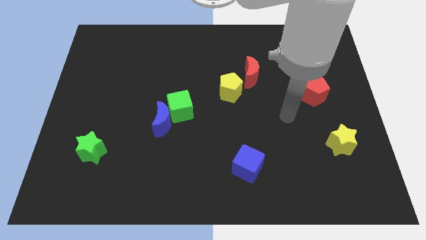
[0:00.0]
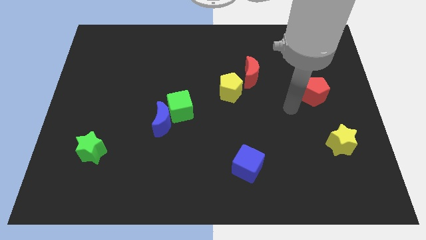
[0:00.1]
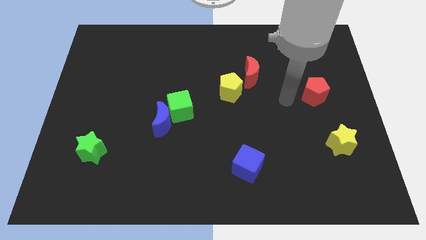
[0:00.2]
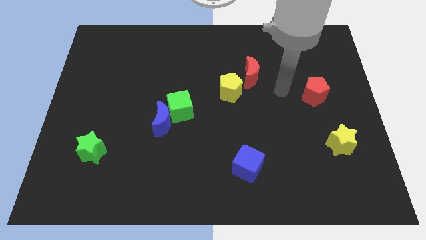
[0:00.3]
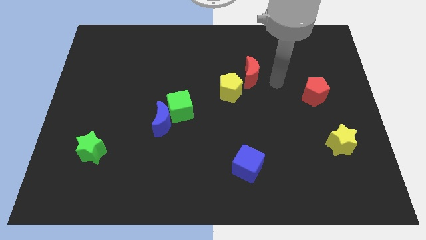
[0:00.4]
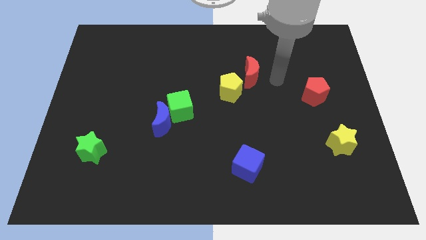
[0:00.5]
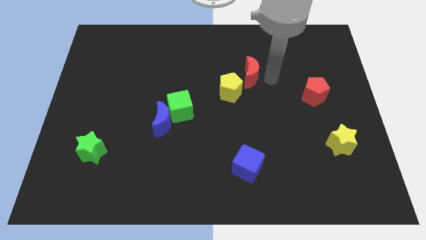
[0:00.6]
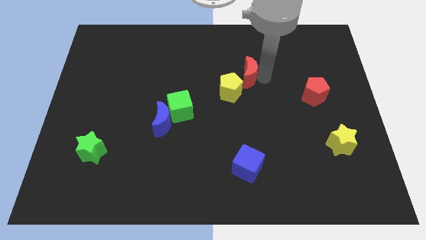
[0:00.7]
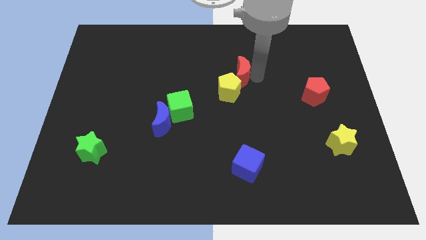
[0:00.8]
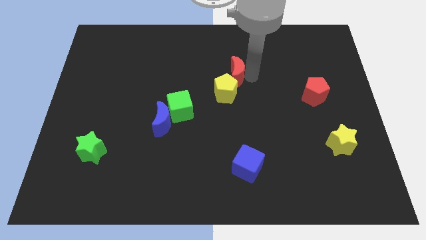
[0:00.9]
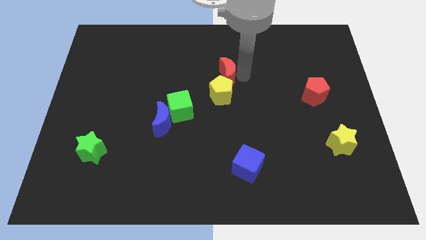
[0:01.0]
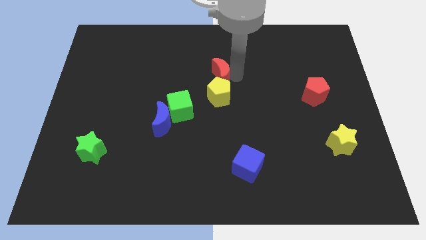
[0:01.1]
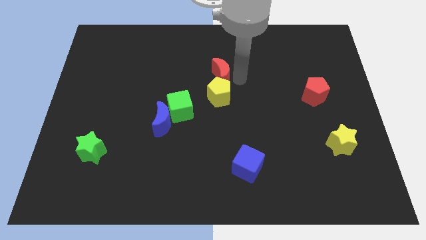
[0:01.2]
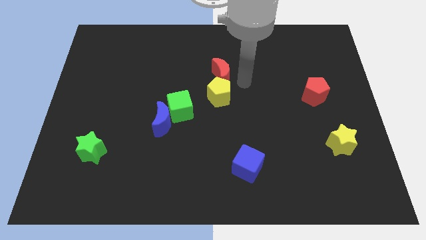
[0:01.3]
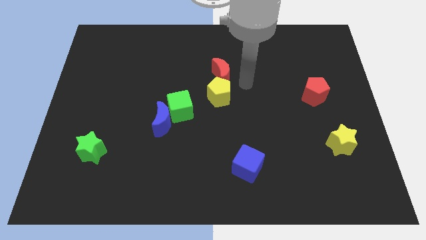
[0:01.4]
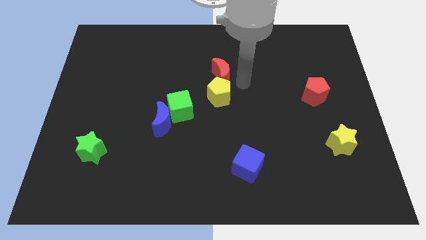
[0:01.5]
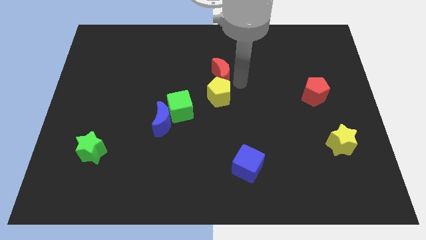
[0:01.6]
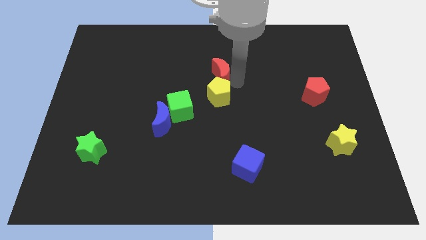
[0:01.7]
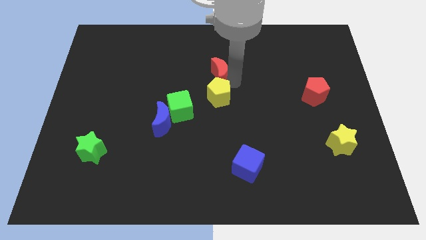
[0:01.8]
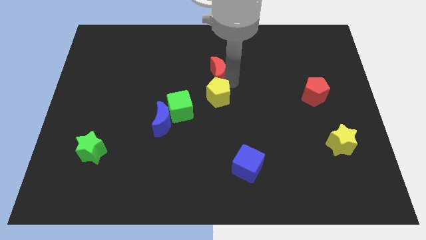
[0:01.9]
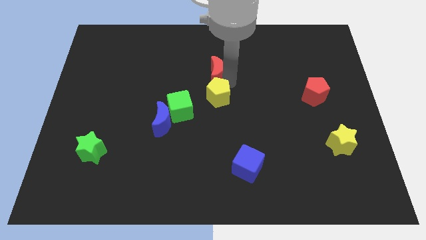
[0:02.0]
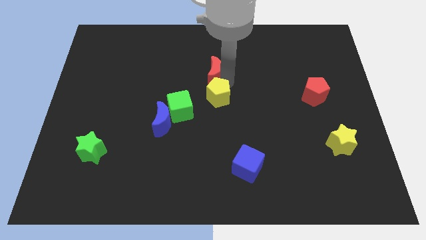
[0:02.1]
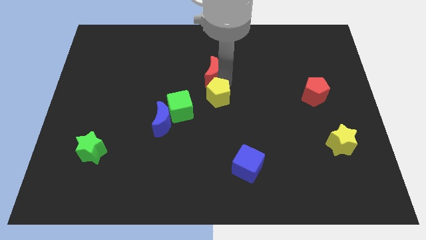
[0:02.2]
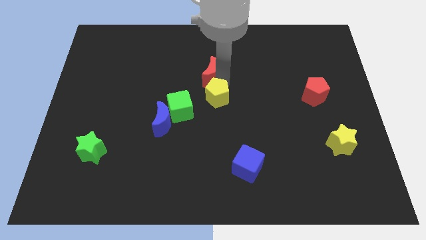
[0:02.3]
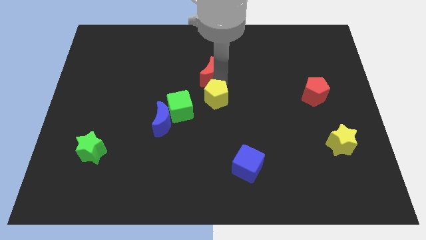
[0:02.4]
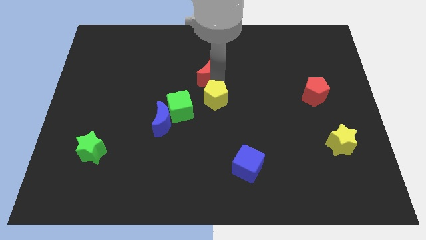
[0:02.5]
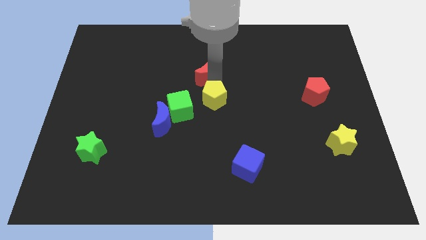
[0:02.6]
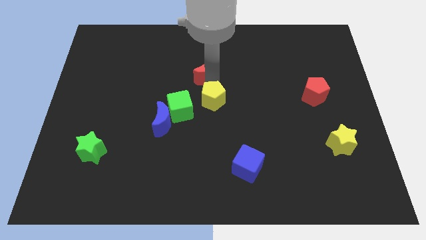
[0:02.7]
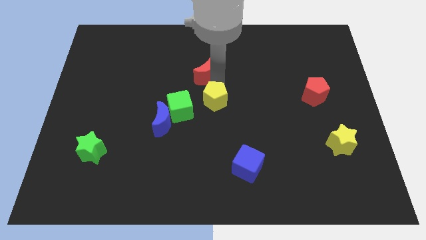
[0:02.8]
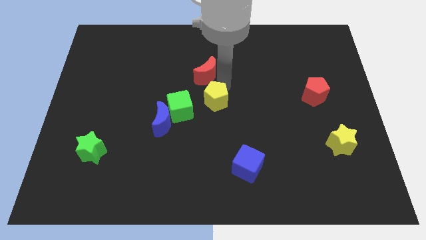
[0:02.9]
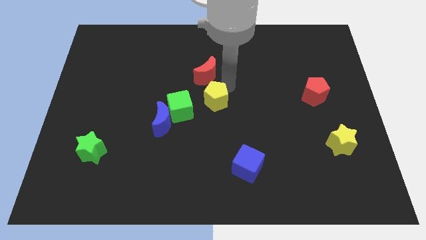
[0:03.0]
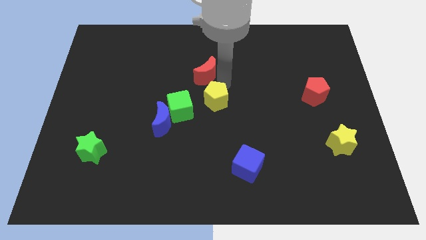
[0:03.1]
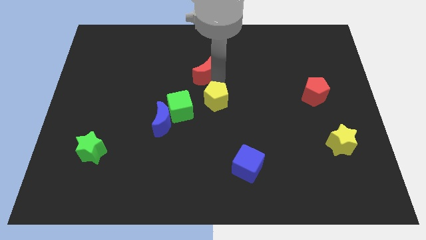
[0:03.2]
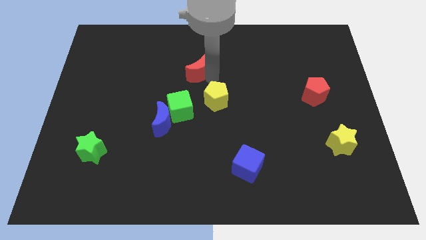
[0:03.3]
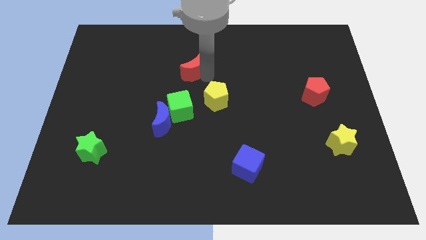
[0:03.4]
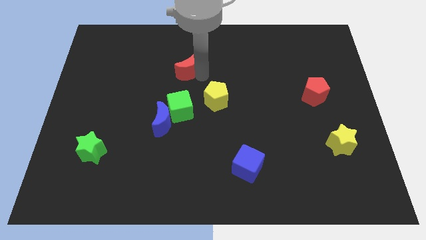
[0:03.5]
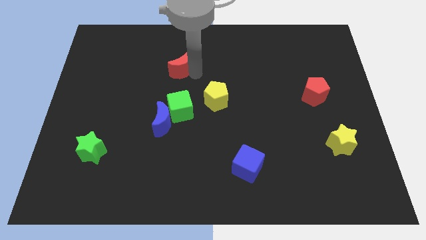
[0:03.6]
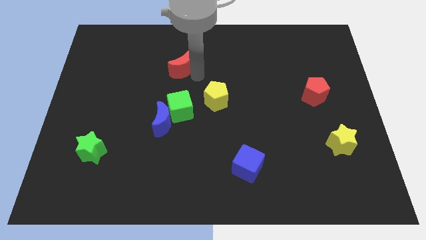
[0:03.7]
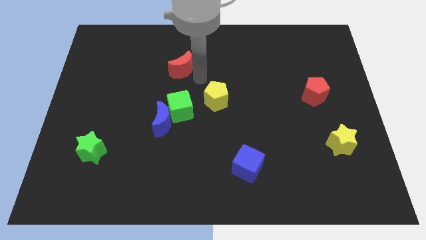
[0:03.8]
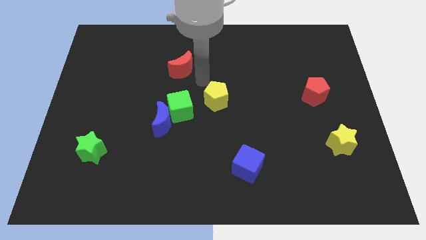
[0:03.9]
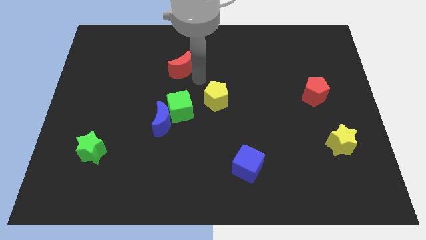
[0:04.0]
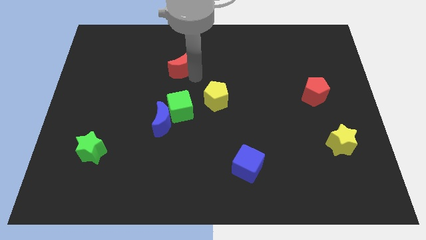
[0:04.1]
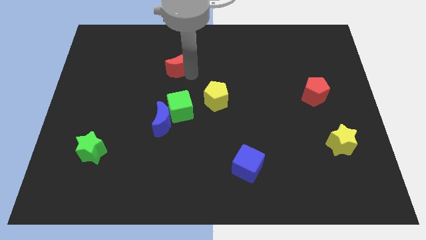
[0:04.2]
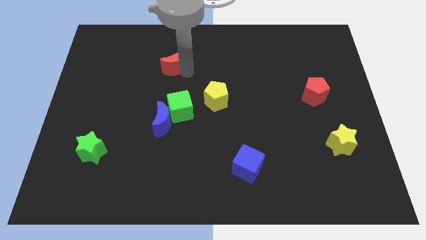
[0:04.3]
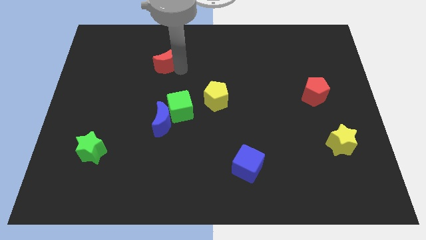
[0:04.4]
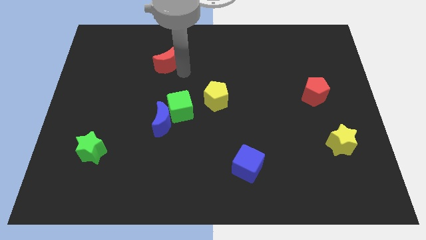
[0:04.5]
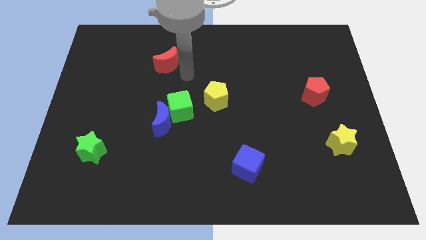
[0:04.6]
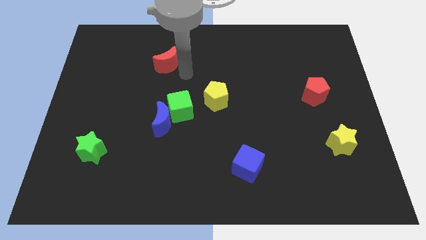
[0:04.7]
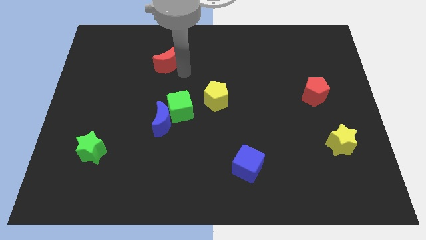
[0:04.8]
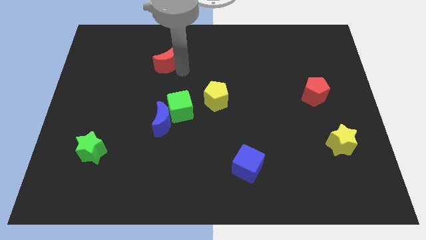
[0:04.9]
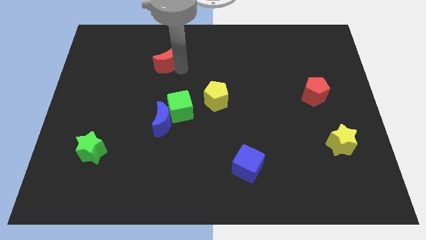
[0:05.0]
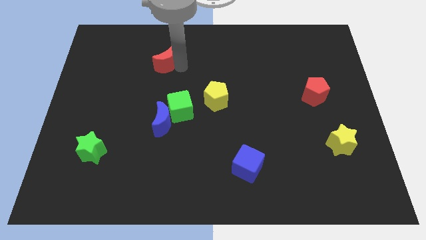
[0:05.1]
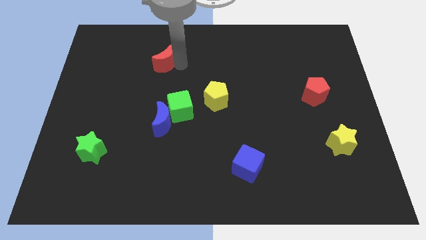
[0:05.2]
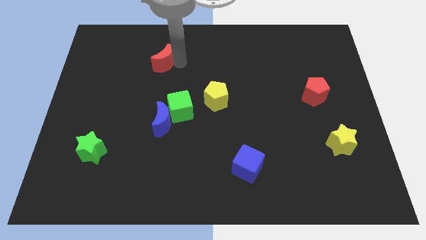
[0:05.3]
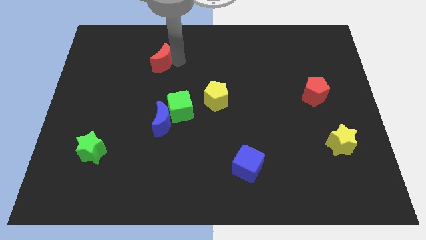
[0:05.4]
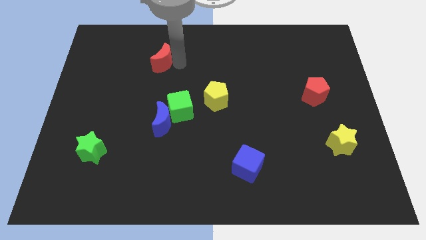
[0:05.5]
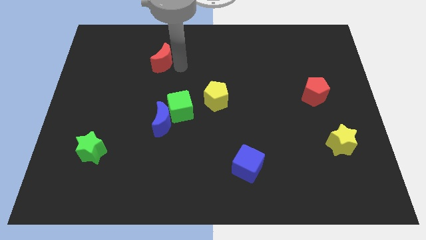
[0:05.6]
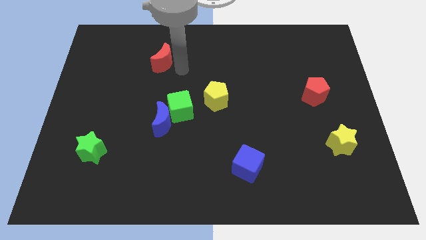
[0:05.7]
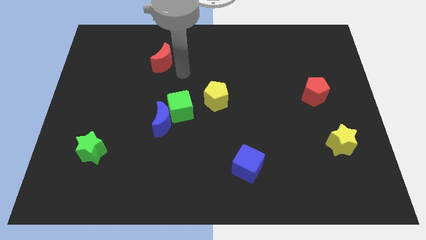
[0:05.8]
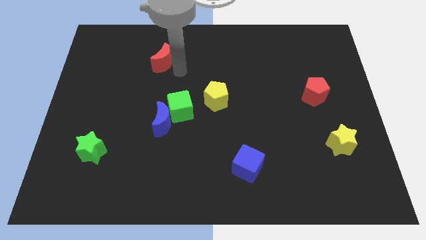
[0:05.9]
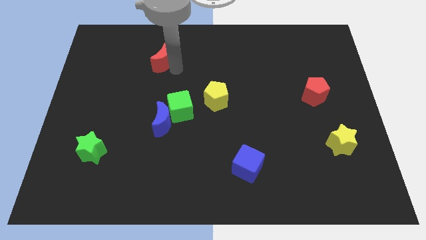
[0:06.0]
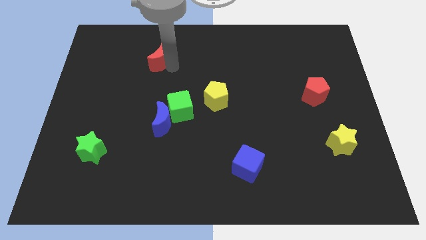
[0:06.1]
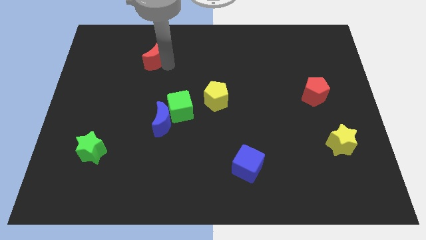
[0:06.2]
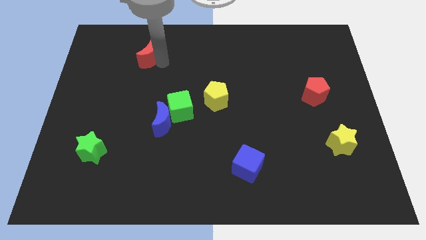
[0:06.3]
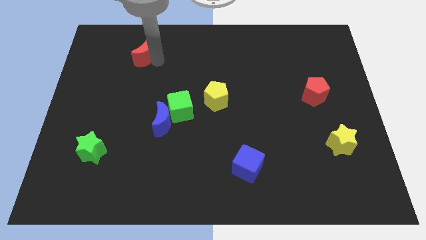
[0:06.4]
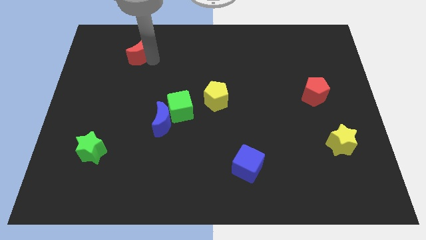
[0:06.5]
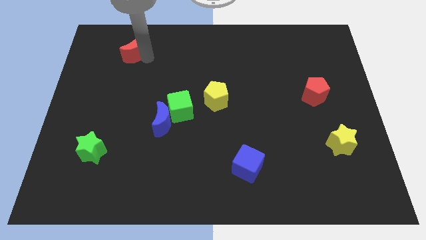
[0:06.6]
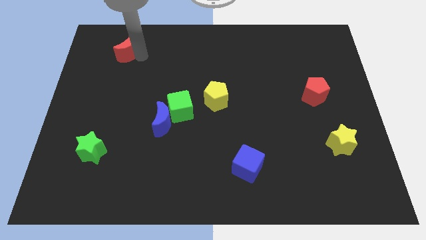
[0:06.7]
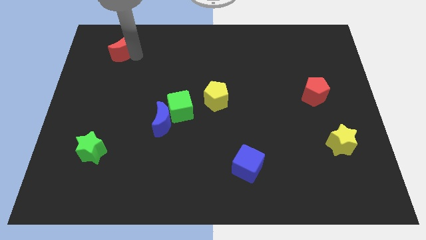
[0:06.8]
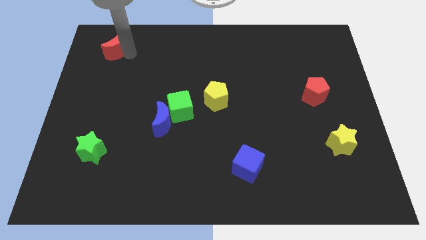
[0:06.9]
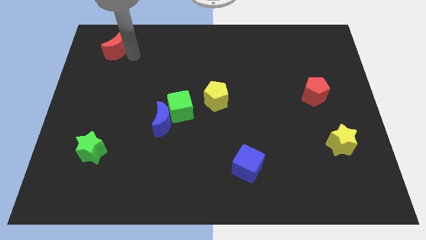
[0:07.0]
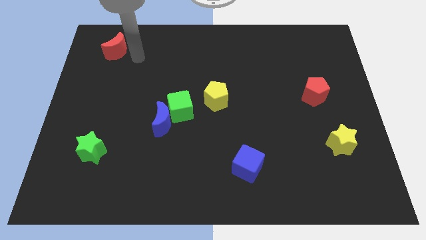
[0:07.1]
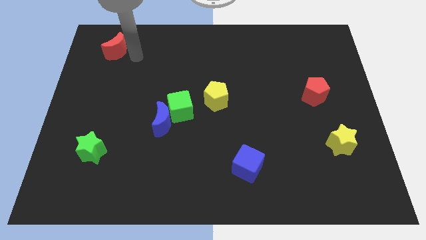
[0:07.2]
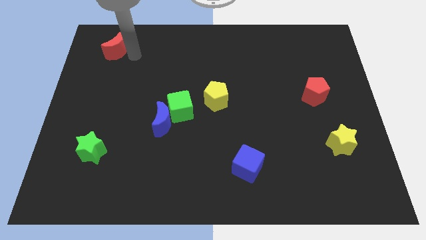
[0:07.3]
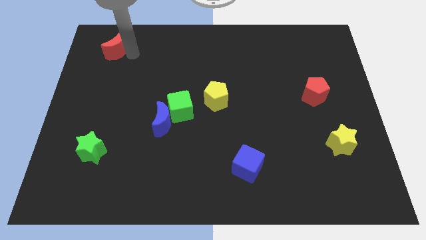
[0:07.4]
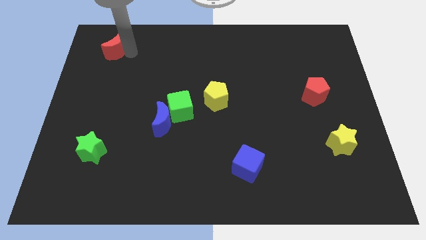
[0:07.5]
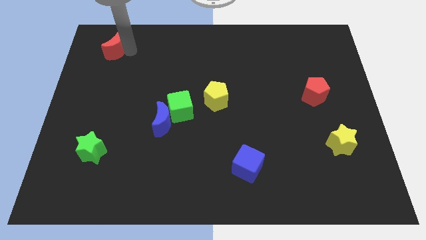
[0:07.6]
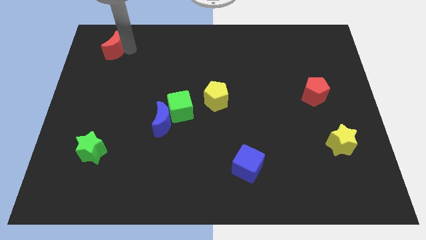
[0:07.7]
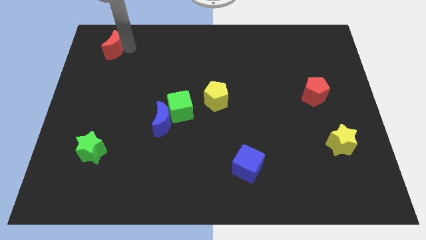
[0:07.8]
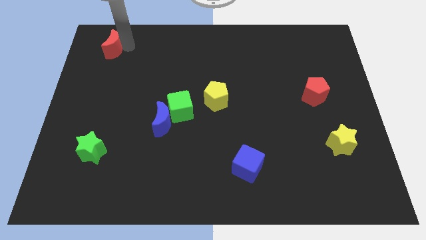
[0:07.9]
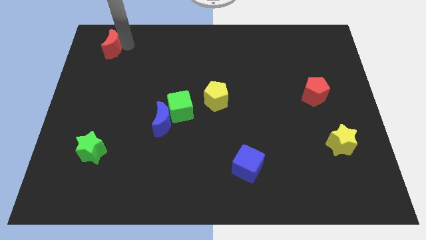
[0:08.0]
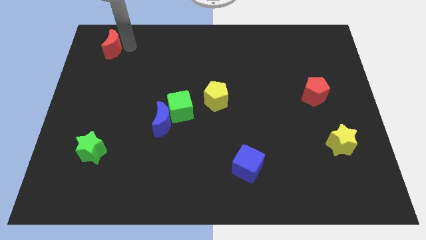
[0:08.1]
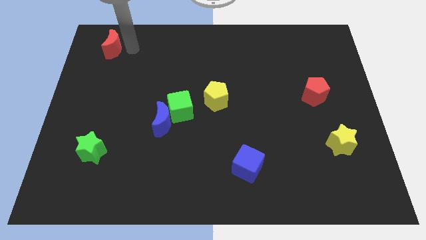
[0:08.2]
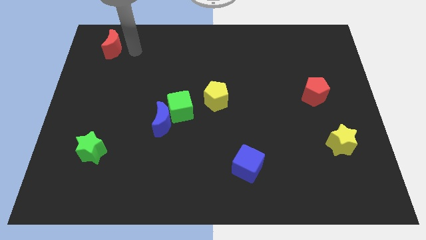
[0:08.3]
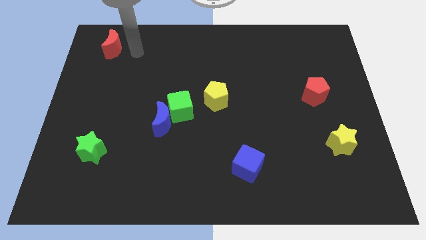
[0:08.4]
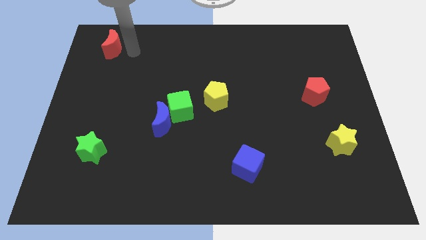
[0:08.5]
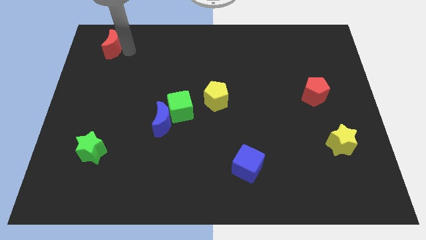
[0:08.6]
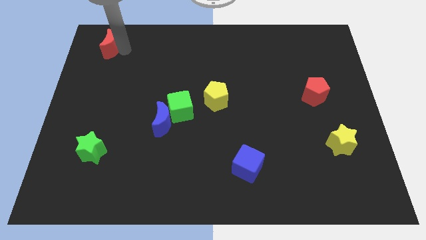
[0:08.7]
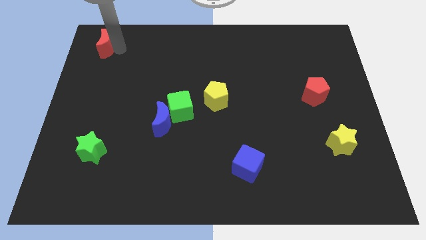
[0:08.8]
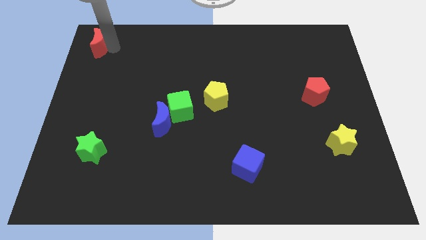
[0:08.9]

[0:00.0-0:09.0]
put the red moon to the top left corner
